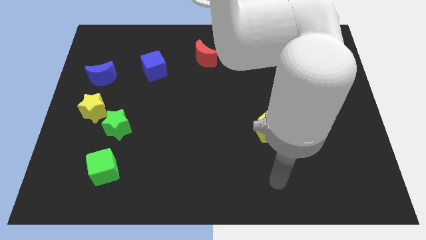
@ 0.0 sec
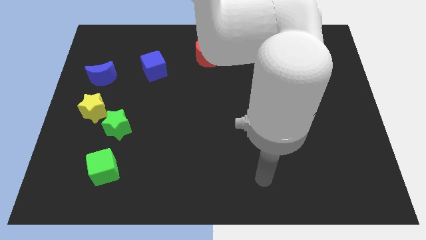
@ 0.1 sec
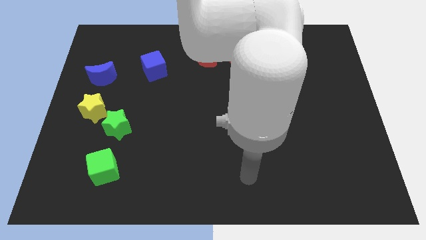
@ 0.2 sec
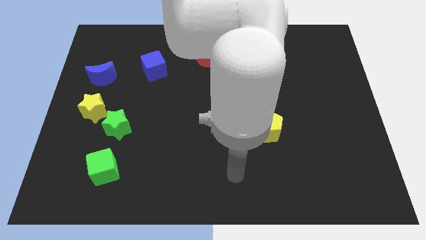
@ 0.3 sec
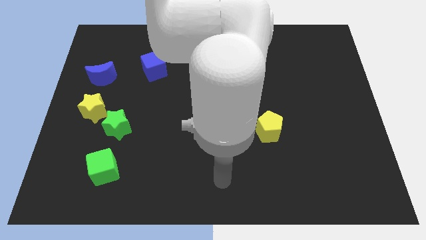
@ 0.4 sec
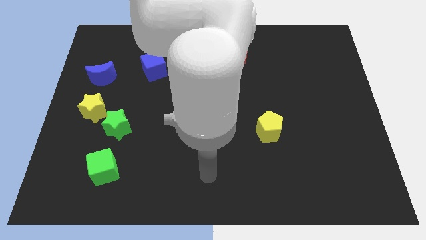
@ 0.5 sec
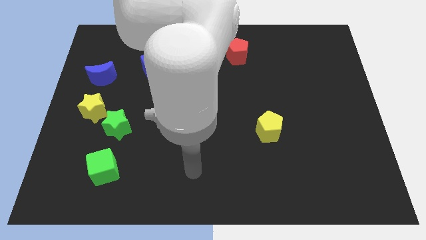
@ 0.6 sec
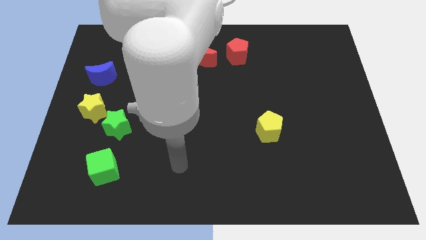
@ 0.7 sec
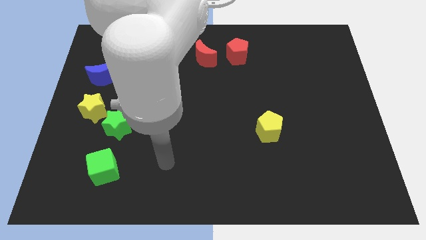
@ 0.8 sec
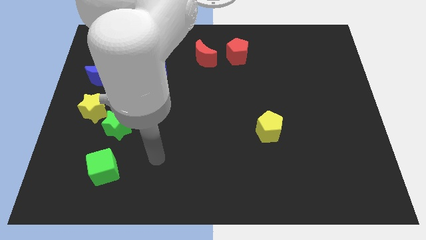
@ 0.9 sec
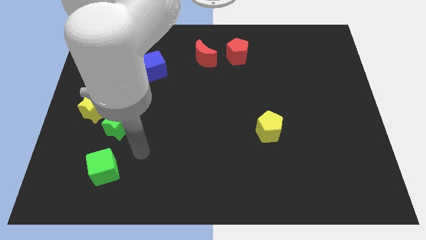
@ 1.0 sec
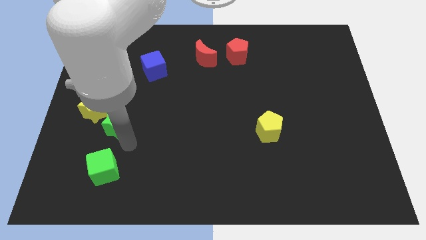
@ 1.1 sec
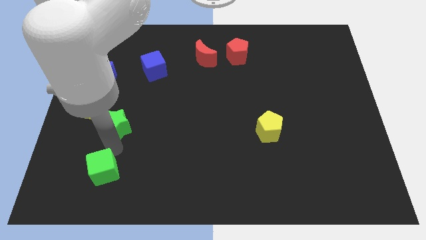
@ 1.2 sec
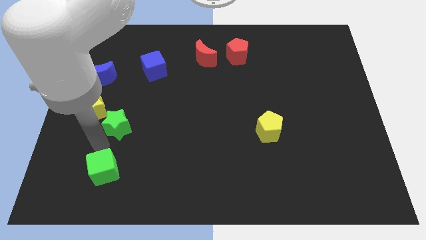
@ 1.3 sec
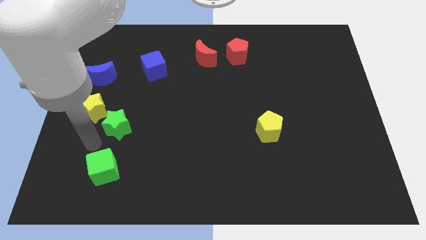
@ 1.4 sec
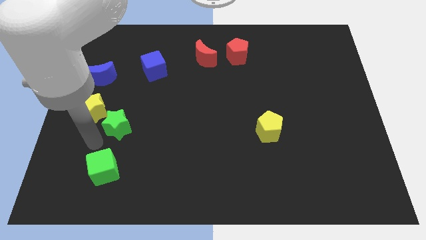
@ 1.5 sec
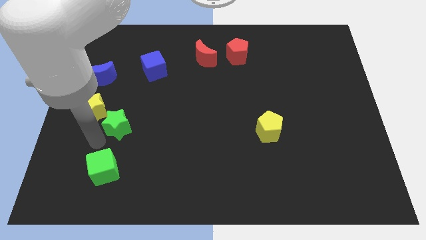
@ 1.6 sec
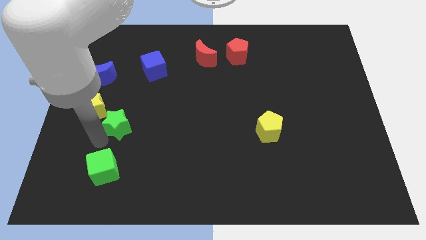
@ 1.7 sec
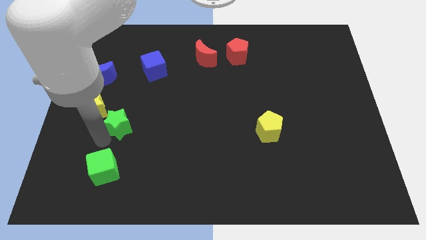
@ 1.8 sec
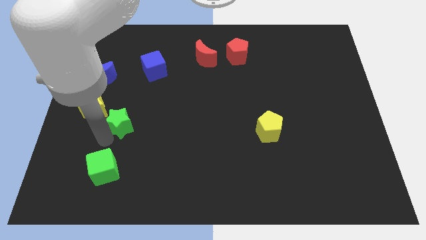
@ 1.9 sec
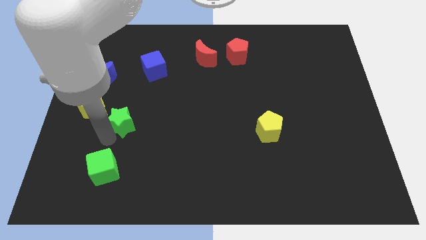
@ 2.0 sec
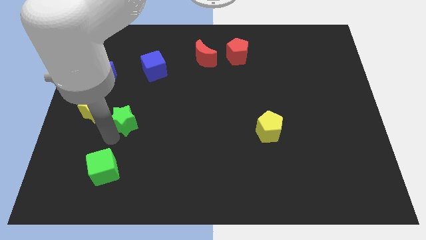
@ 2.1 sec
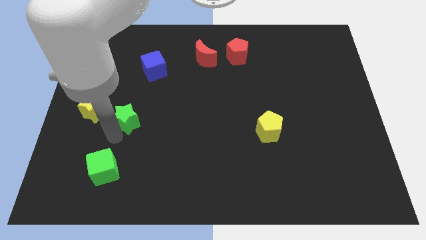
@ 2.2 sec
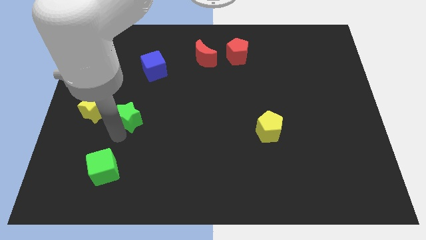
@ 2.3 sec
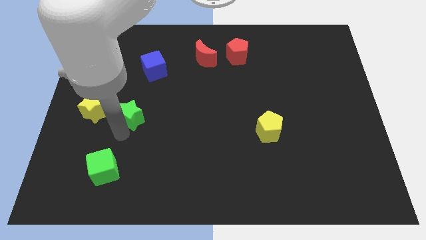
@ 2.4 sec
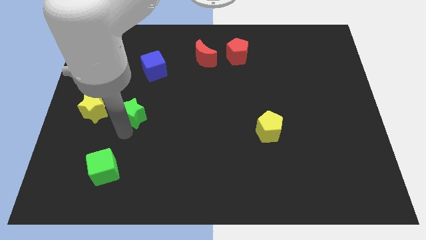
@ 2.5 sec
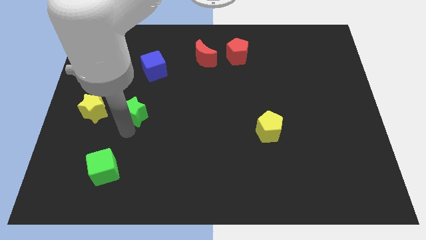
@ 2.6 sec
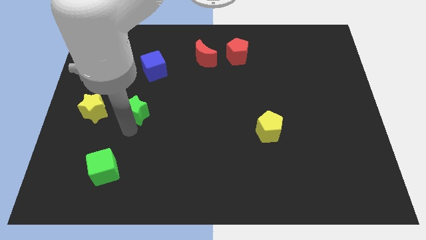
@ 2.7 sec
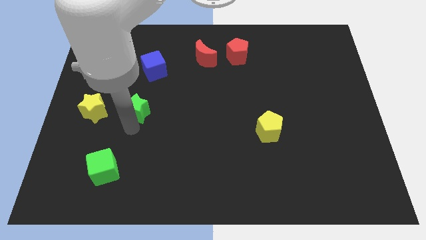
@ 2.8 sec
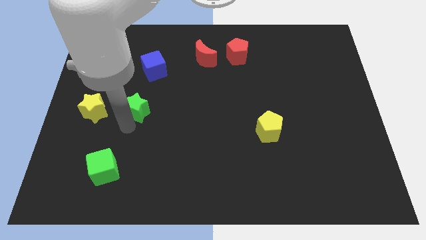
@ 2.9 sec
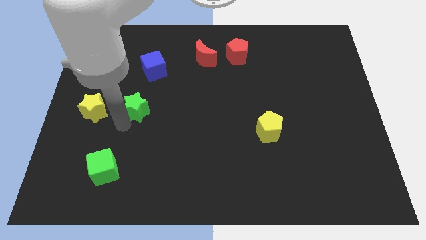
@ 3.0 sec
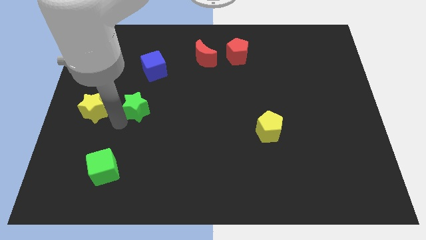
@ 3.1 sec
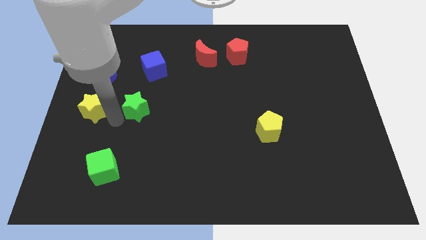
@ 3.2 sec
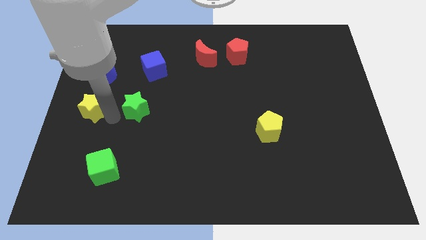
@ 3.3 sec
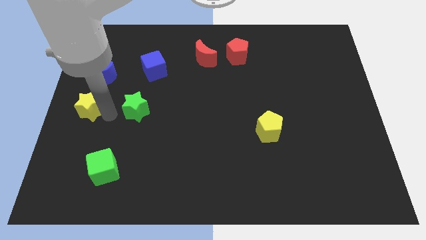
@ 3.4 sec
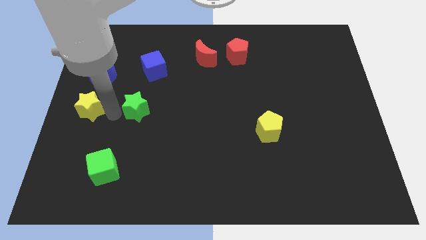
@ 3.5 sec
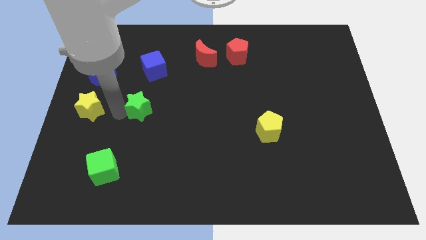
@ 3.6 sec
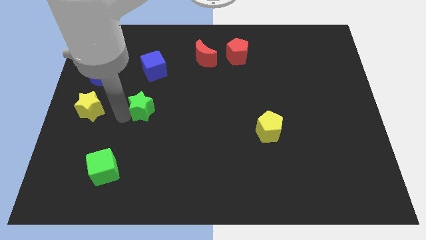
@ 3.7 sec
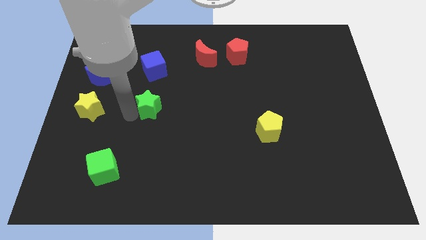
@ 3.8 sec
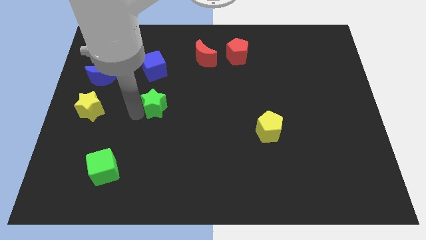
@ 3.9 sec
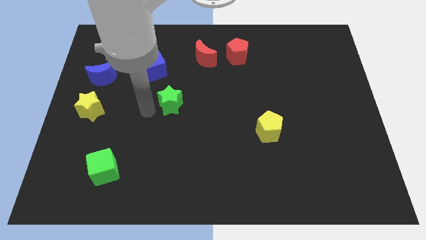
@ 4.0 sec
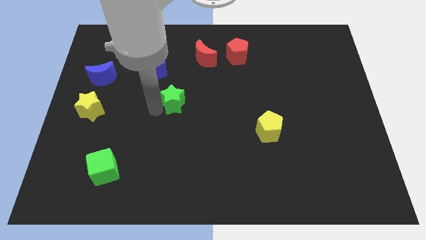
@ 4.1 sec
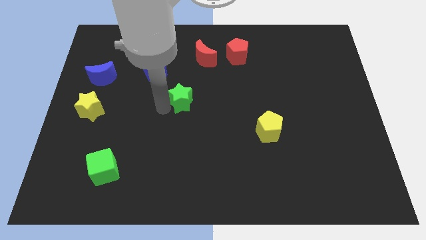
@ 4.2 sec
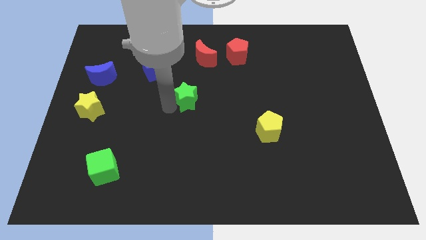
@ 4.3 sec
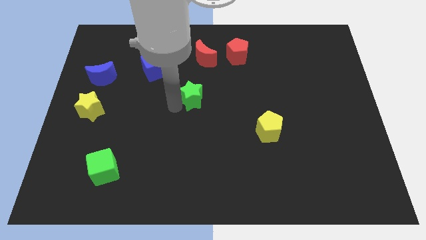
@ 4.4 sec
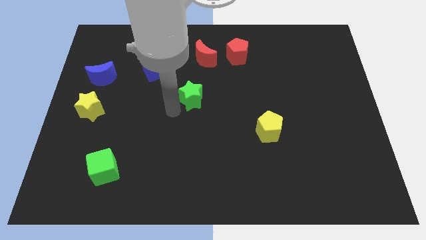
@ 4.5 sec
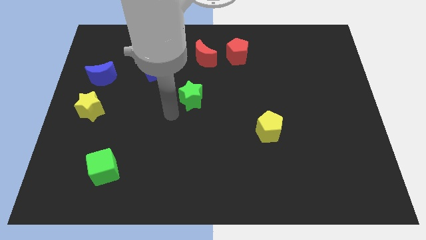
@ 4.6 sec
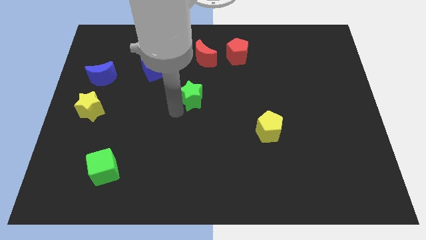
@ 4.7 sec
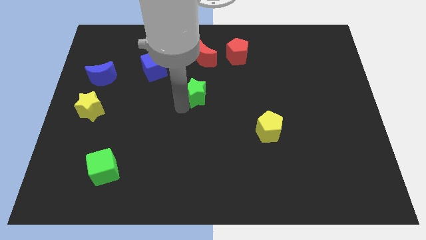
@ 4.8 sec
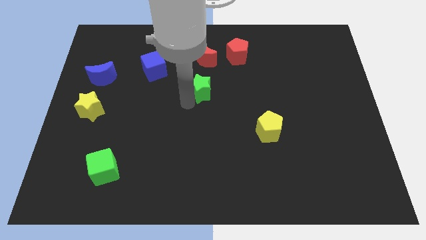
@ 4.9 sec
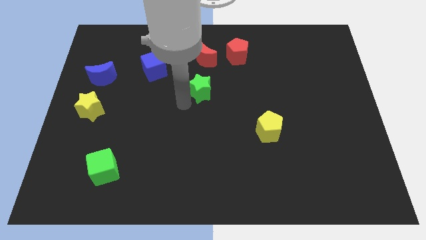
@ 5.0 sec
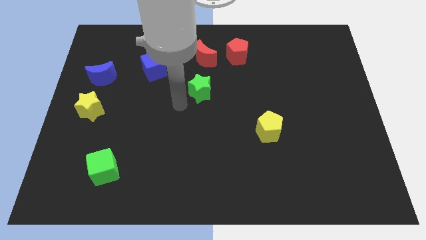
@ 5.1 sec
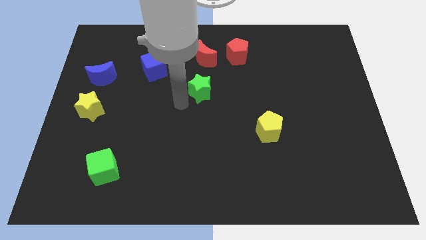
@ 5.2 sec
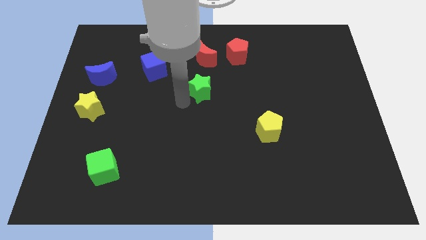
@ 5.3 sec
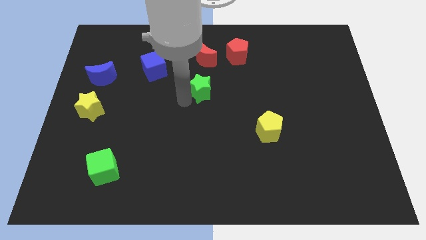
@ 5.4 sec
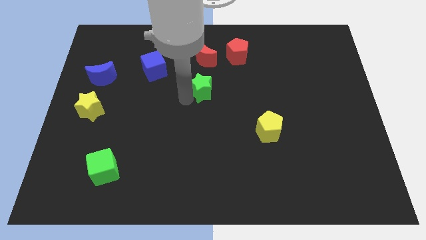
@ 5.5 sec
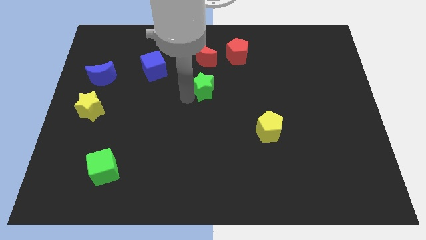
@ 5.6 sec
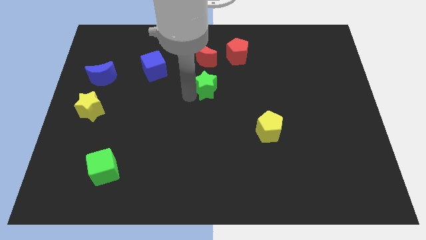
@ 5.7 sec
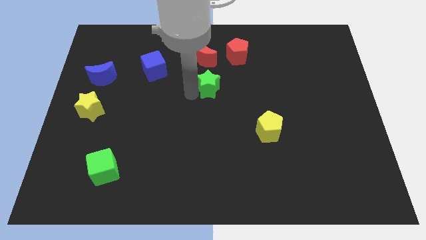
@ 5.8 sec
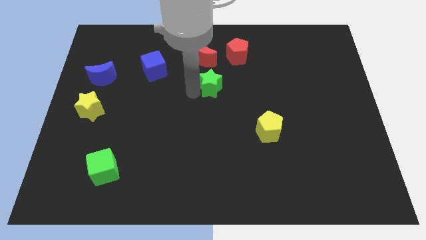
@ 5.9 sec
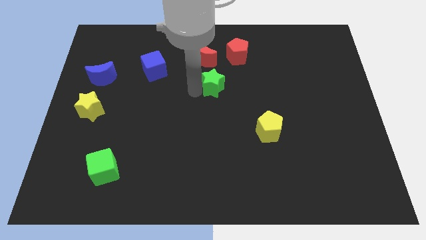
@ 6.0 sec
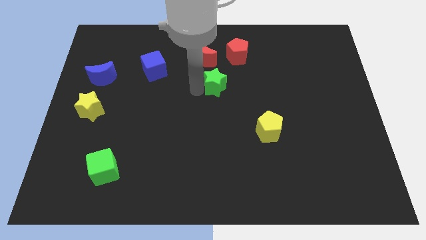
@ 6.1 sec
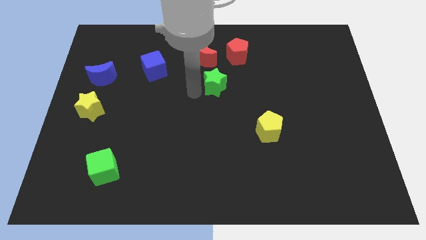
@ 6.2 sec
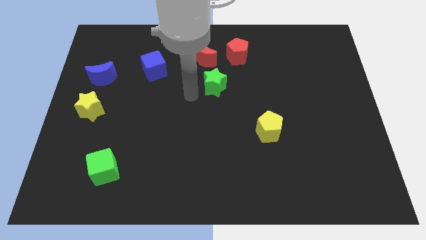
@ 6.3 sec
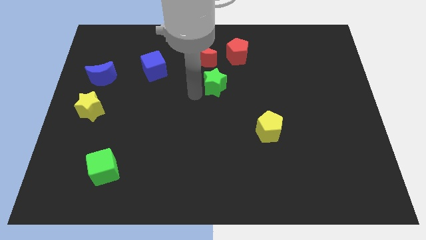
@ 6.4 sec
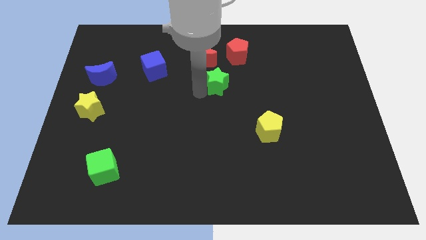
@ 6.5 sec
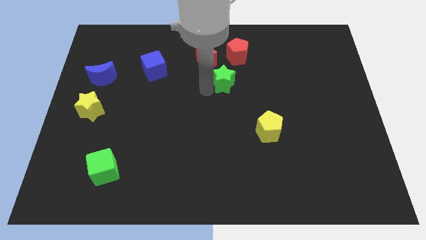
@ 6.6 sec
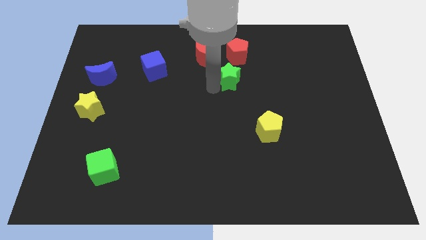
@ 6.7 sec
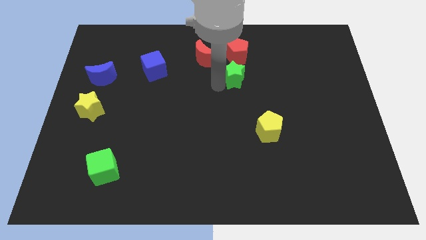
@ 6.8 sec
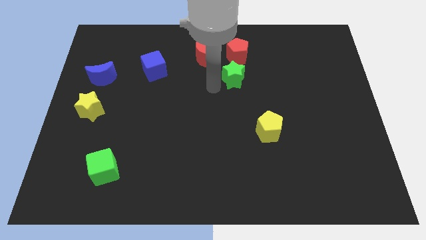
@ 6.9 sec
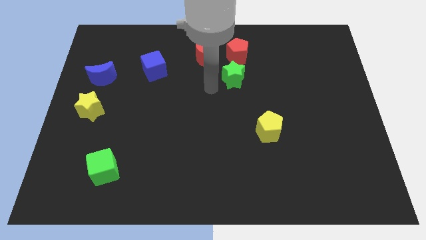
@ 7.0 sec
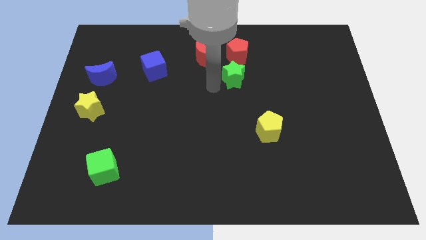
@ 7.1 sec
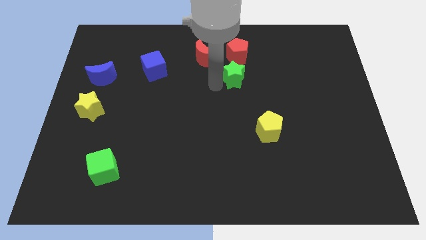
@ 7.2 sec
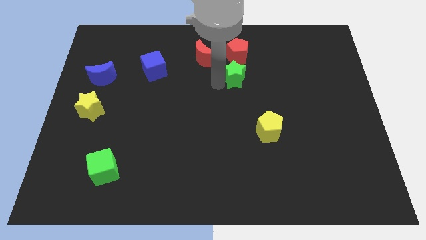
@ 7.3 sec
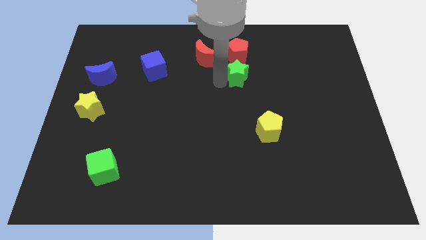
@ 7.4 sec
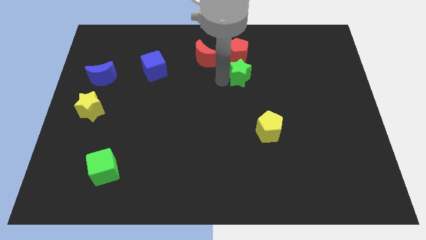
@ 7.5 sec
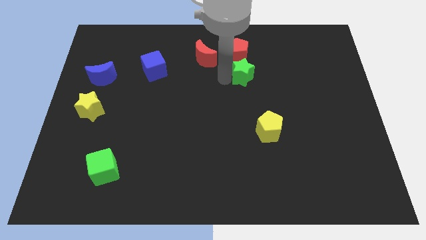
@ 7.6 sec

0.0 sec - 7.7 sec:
move the green star to the bottom right of the red pentagon
